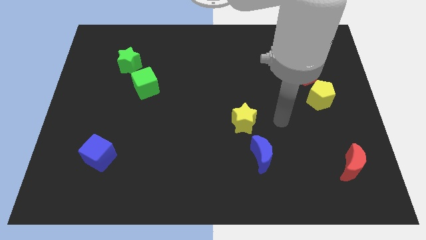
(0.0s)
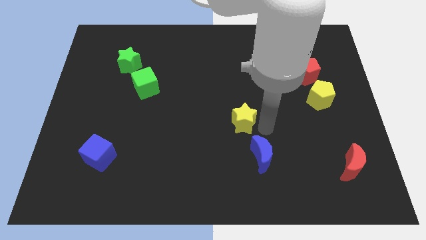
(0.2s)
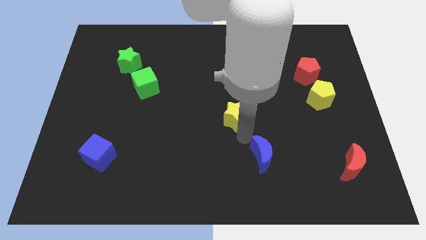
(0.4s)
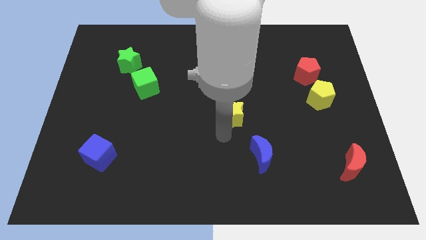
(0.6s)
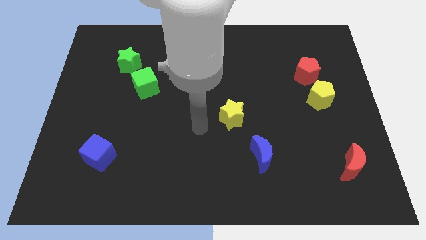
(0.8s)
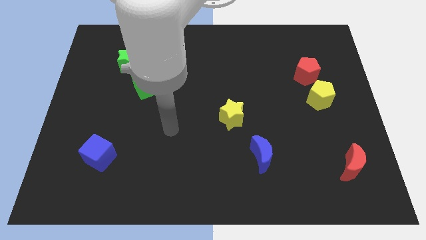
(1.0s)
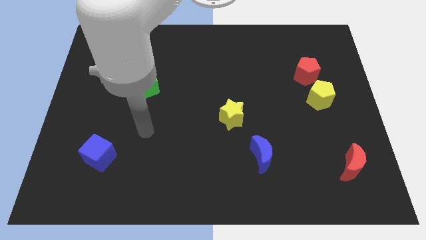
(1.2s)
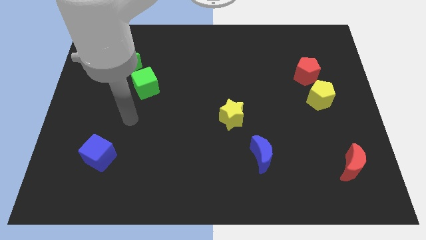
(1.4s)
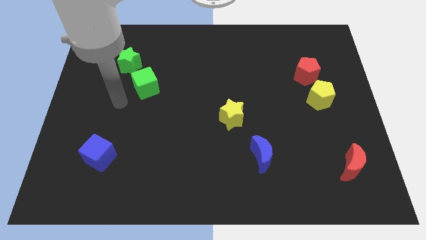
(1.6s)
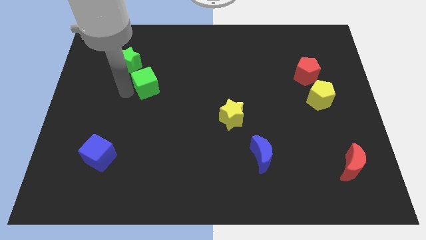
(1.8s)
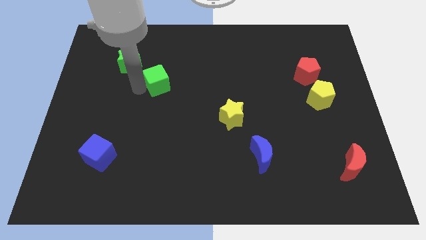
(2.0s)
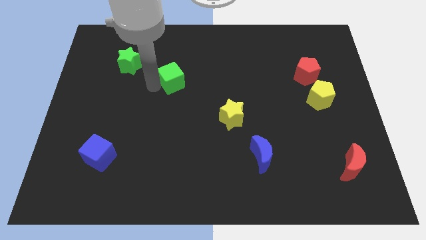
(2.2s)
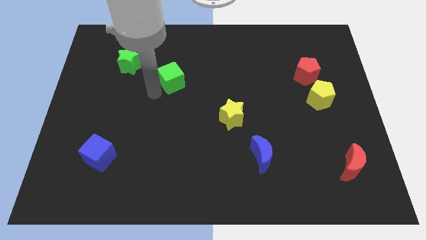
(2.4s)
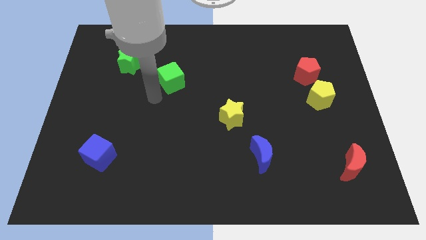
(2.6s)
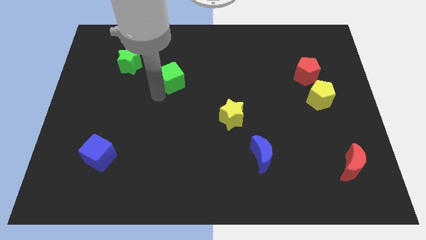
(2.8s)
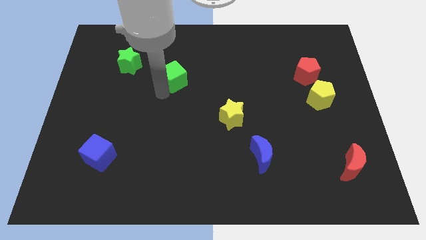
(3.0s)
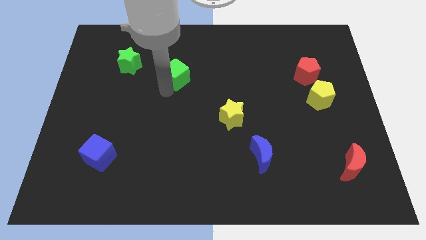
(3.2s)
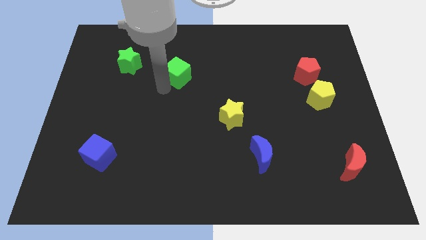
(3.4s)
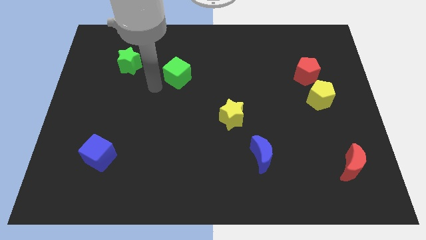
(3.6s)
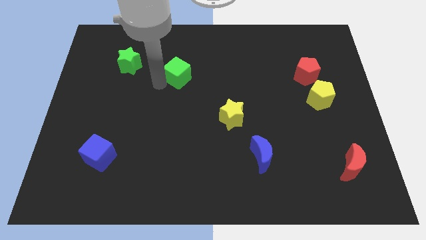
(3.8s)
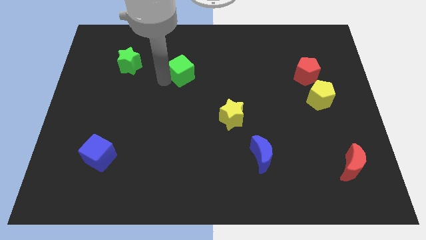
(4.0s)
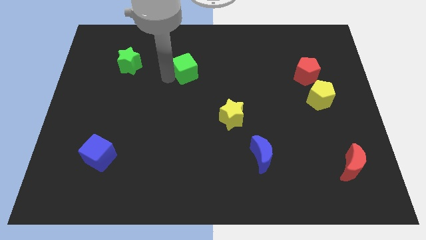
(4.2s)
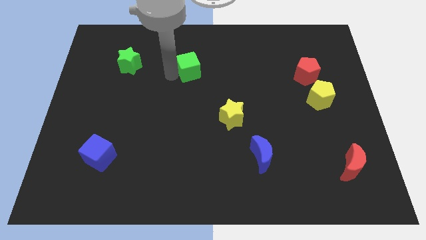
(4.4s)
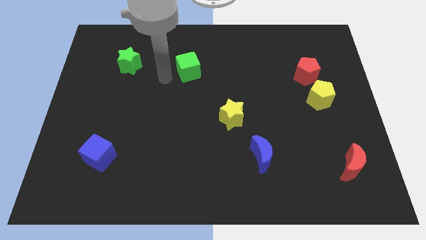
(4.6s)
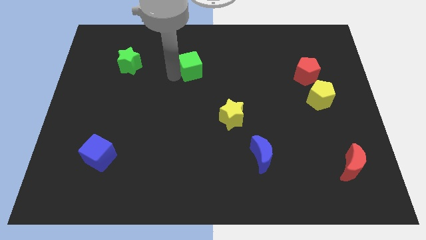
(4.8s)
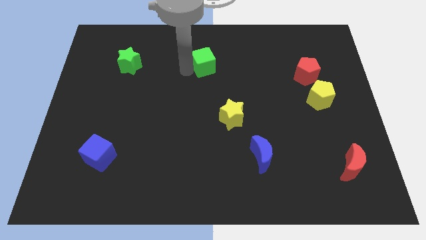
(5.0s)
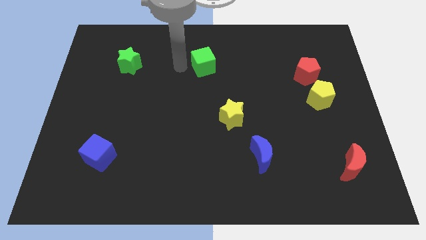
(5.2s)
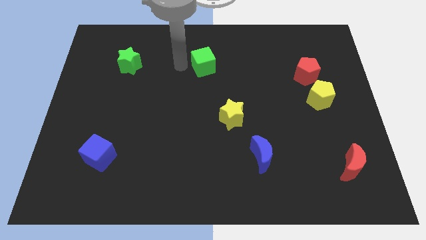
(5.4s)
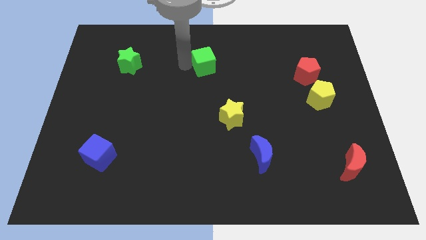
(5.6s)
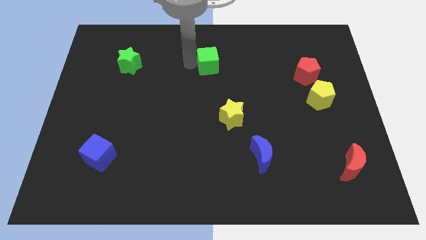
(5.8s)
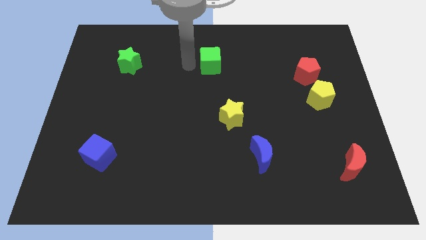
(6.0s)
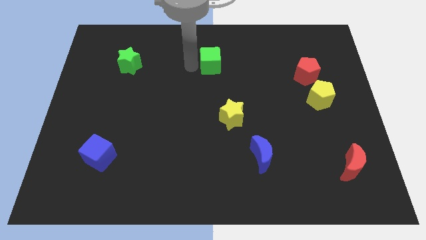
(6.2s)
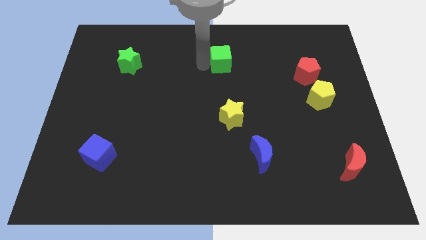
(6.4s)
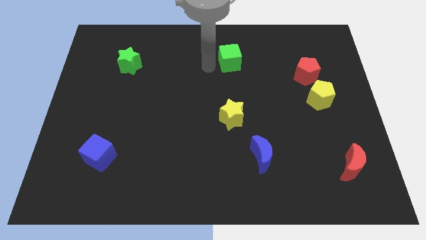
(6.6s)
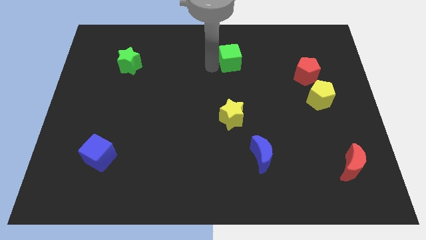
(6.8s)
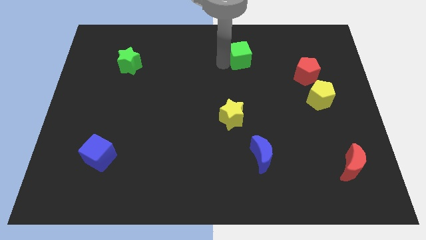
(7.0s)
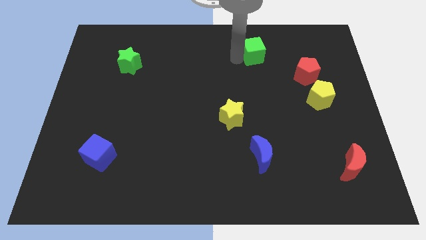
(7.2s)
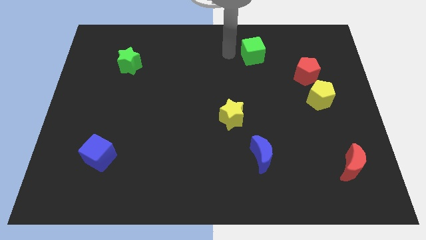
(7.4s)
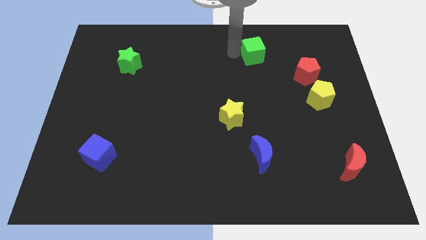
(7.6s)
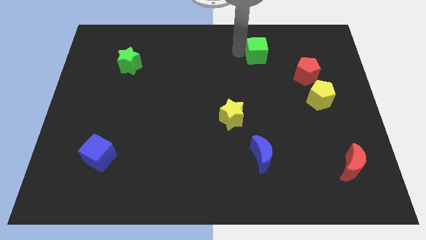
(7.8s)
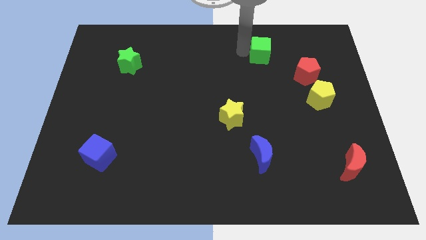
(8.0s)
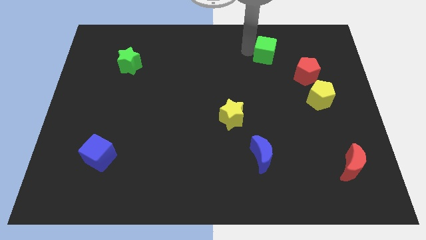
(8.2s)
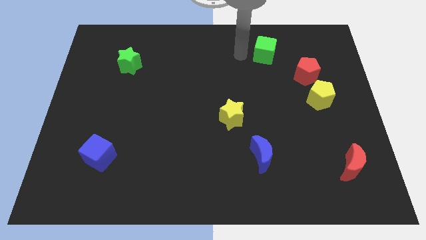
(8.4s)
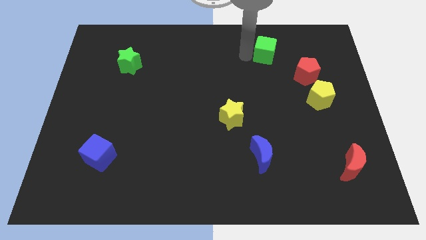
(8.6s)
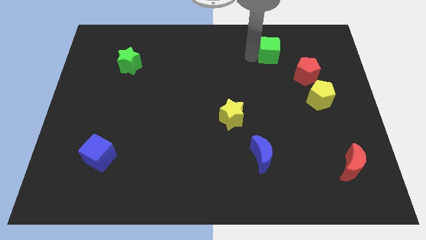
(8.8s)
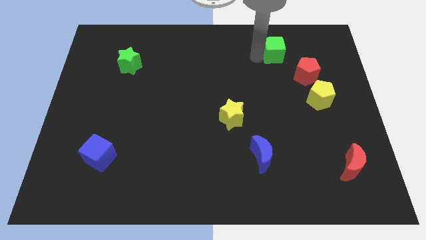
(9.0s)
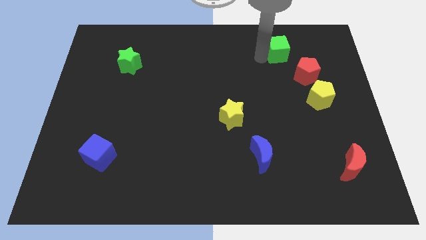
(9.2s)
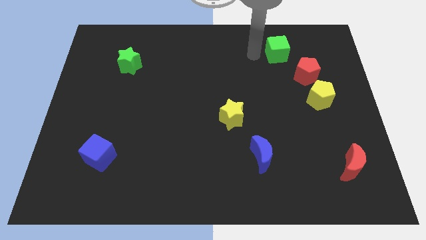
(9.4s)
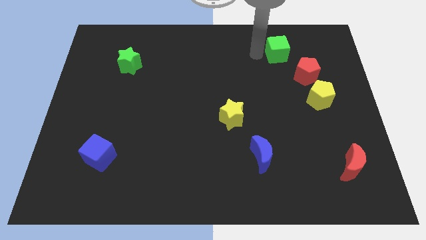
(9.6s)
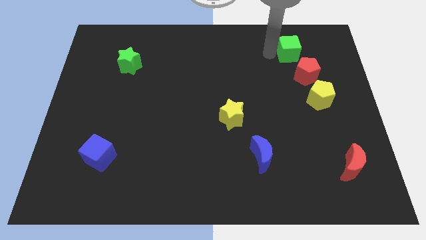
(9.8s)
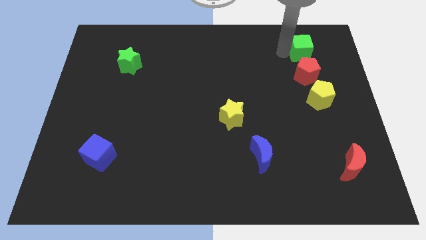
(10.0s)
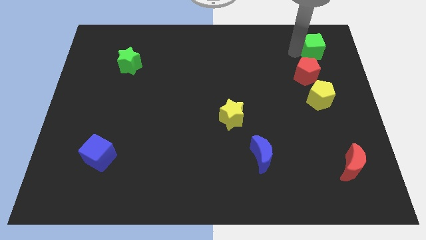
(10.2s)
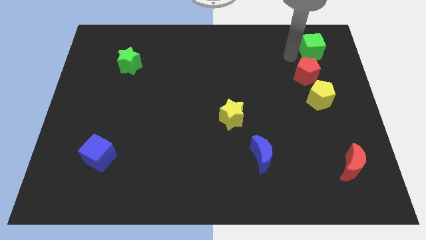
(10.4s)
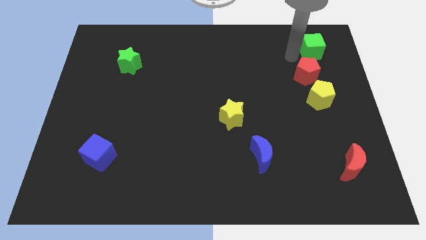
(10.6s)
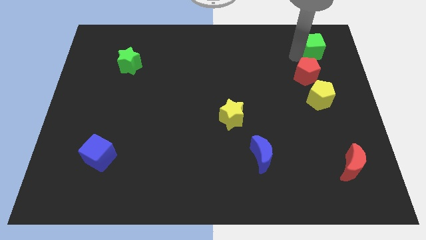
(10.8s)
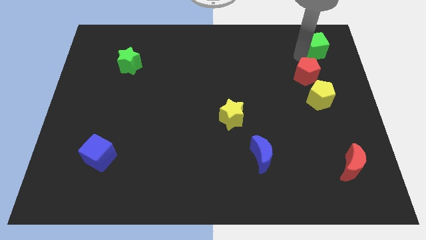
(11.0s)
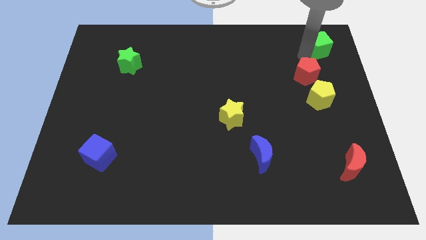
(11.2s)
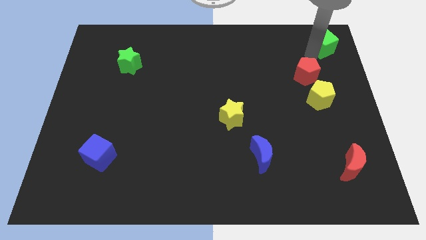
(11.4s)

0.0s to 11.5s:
move the green cube to the top right of the board
